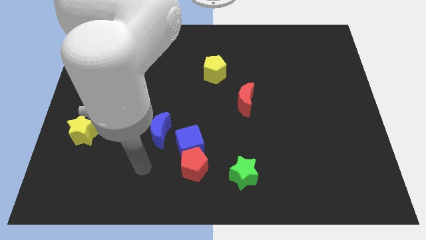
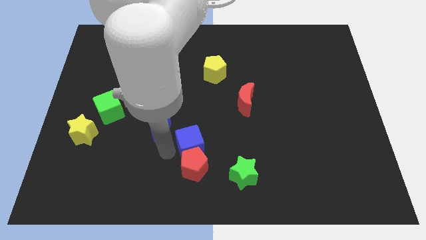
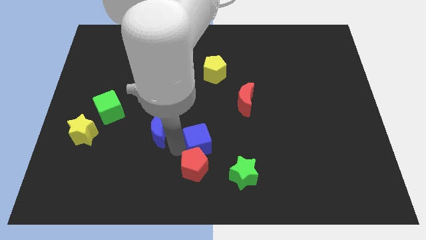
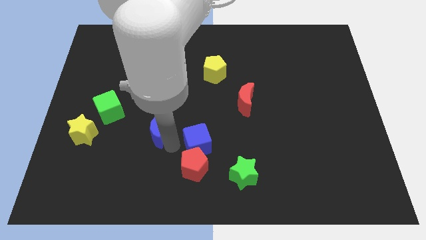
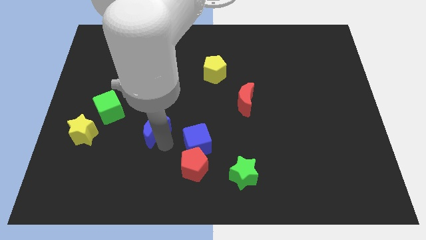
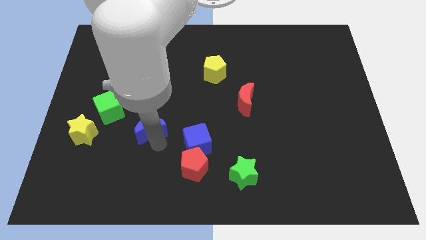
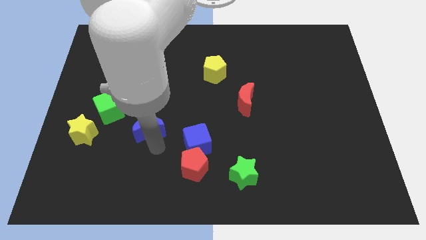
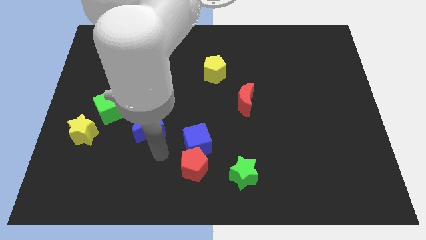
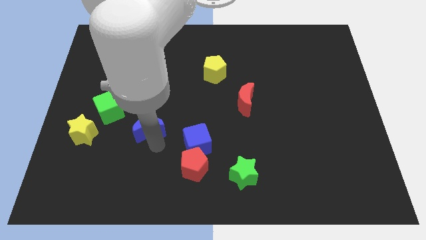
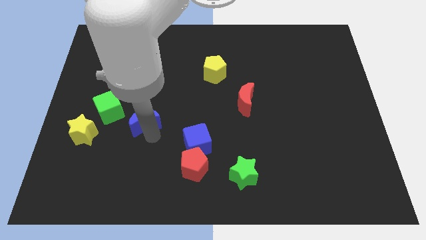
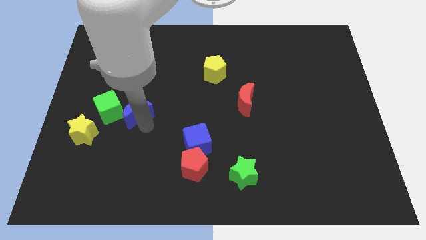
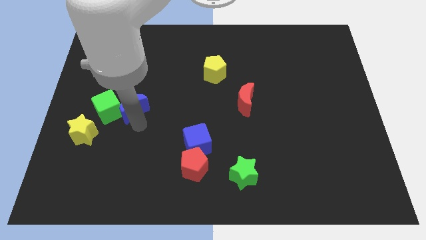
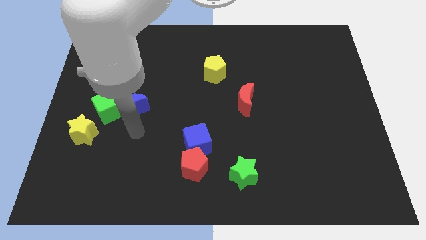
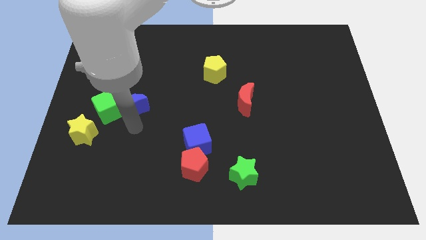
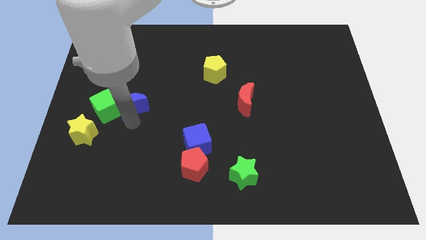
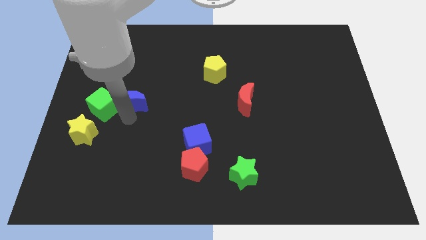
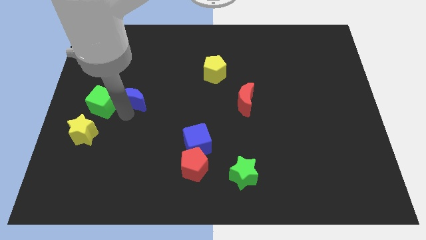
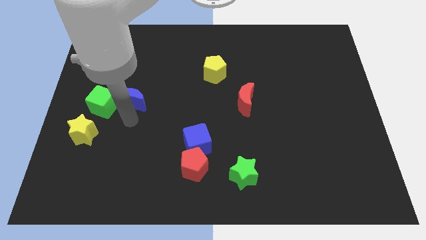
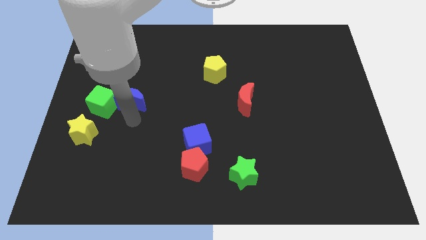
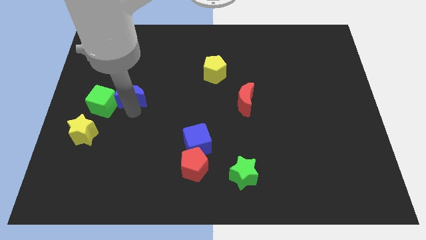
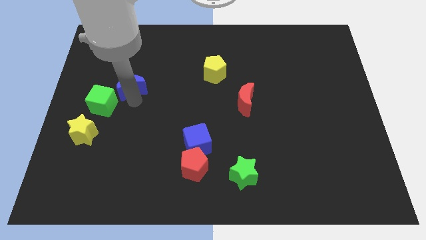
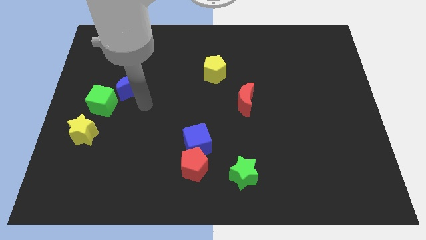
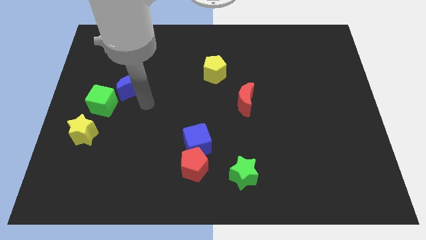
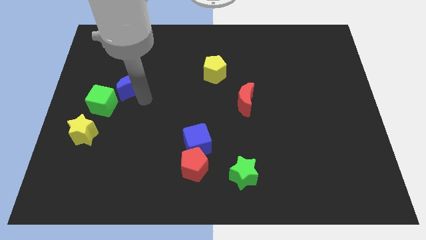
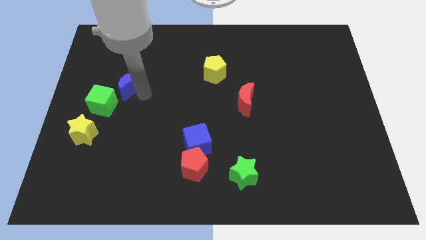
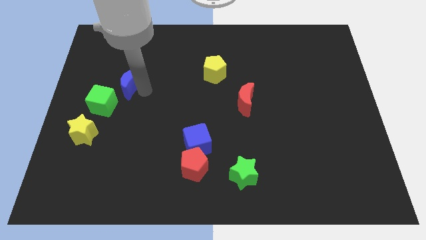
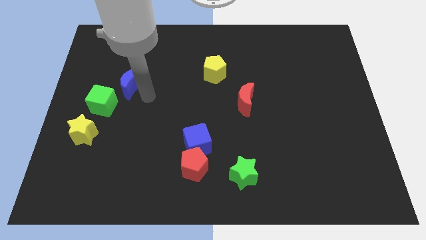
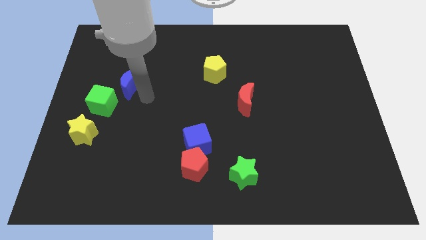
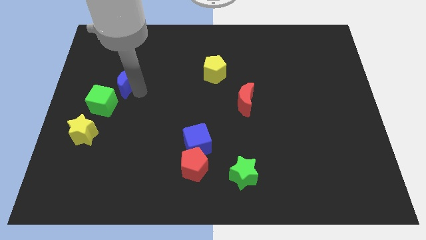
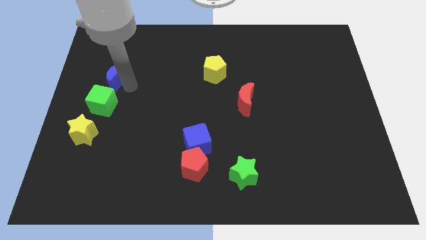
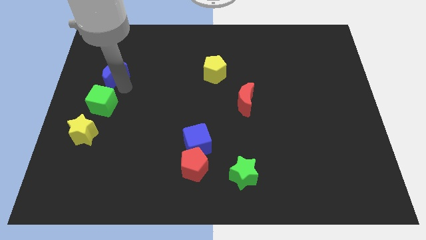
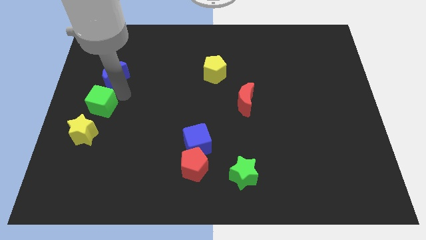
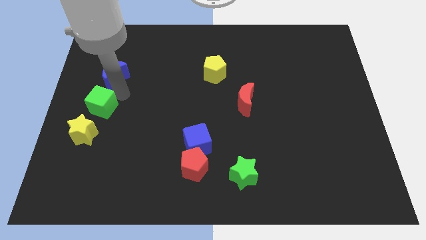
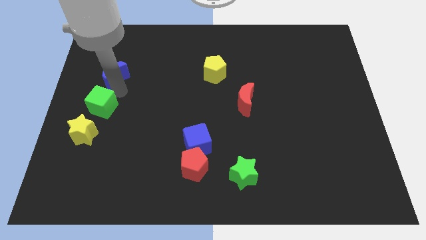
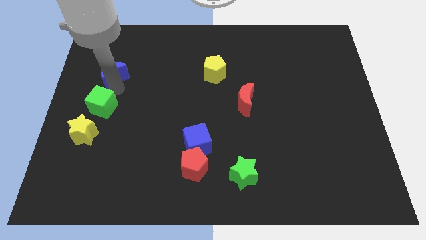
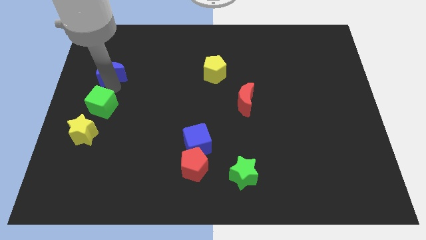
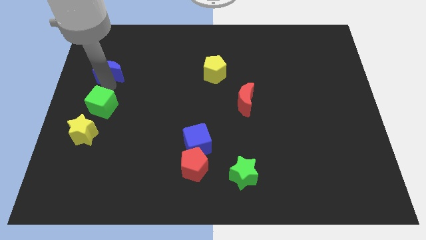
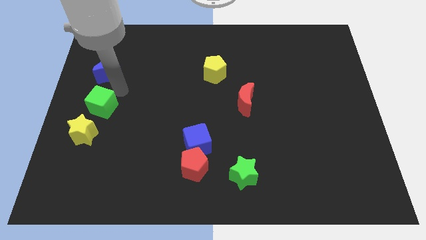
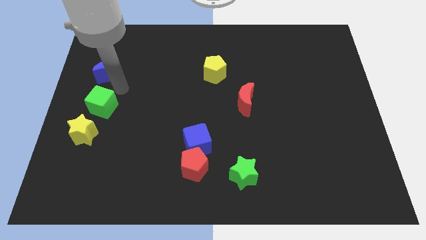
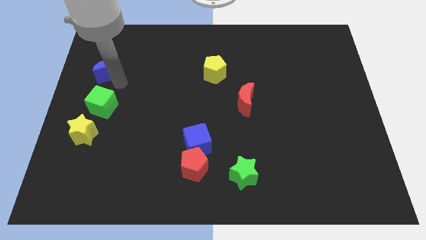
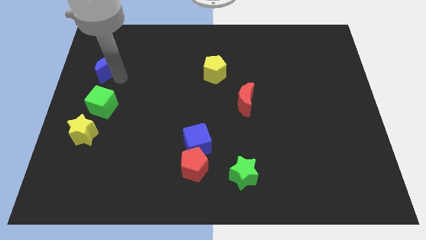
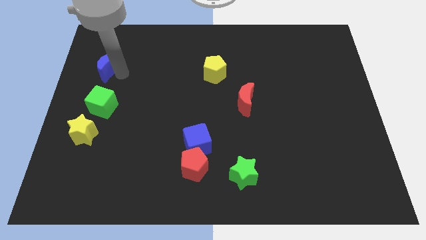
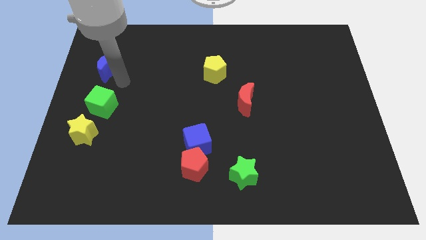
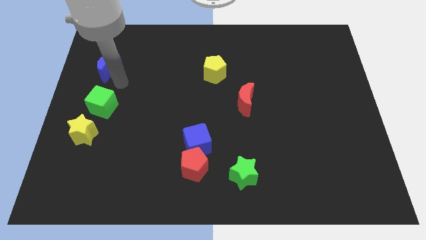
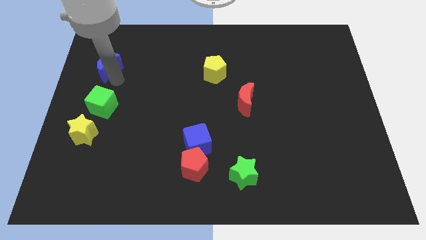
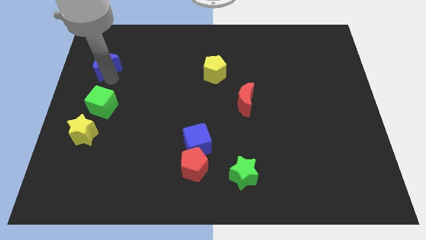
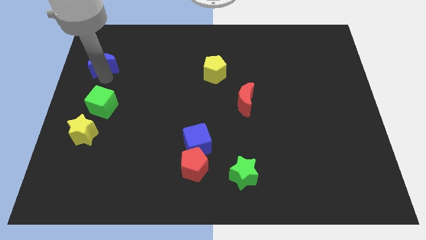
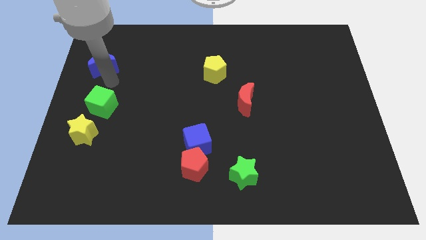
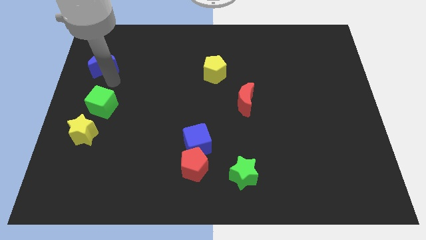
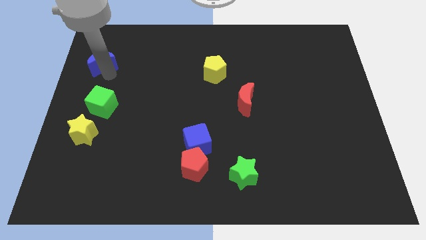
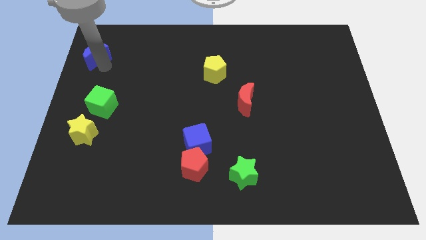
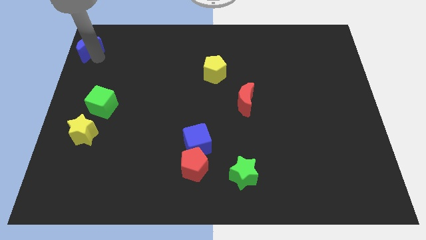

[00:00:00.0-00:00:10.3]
move the blue moon to the top left

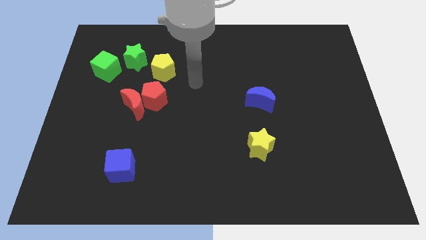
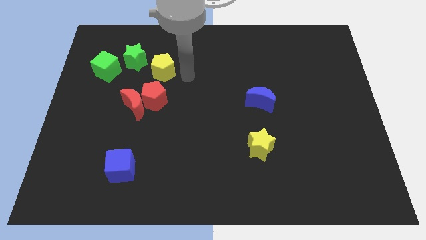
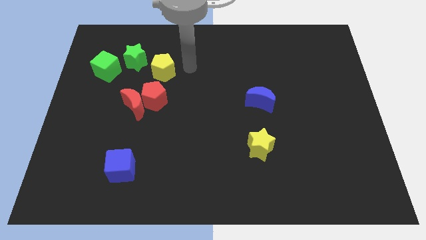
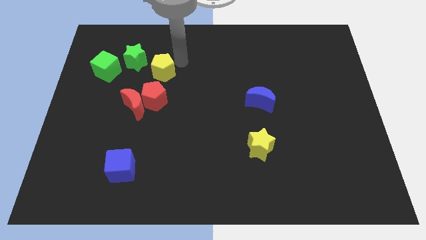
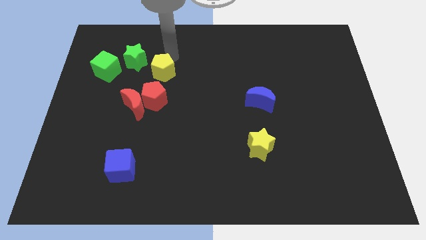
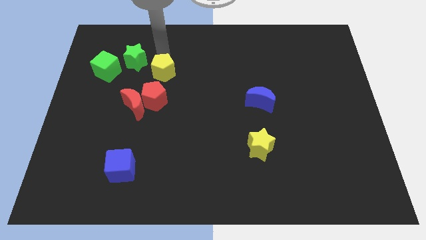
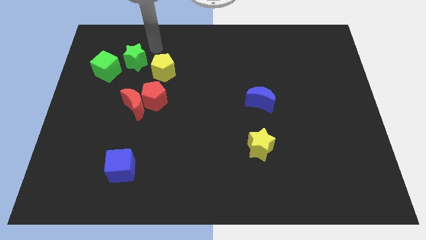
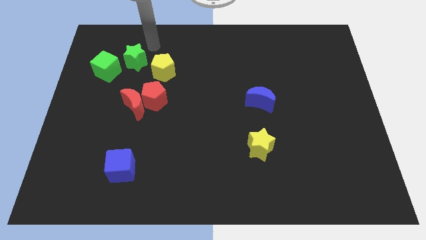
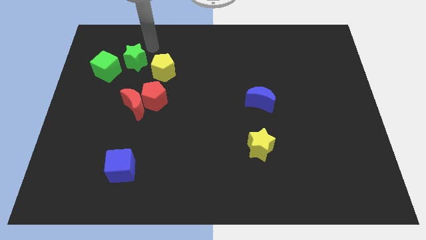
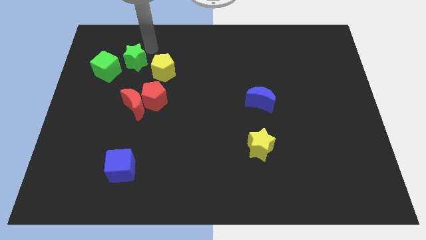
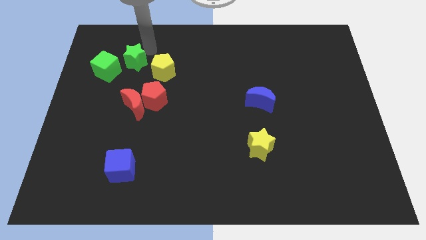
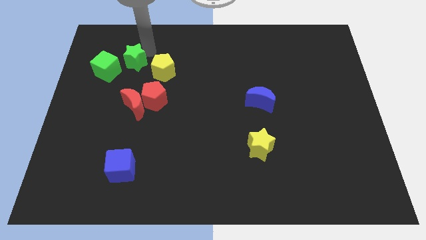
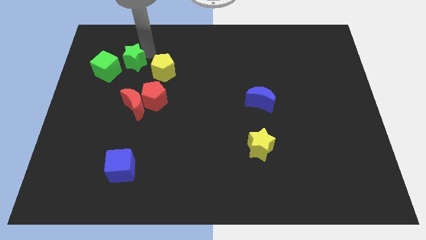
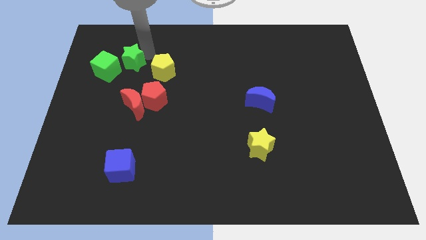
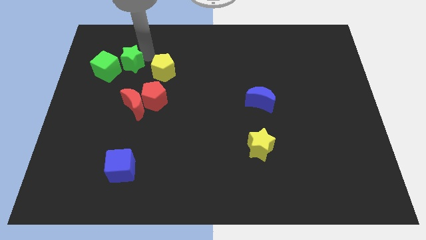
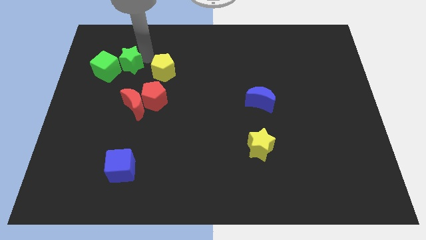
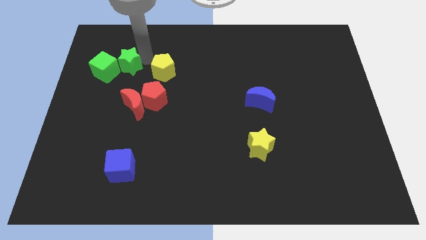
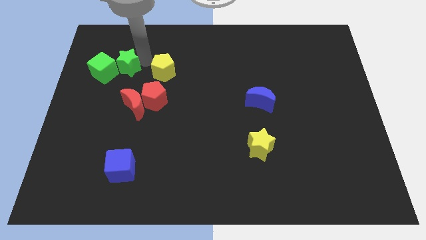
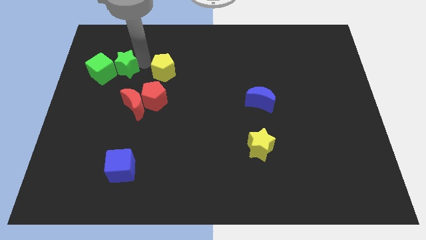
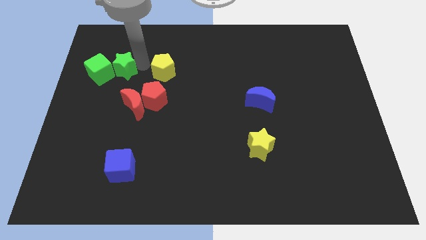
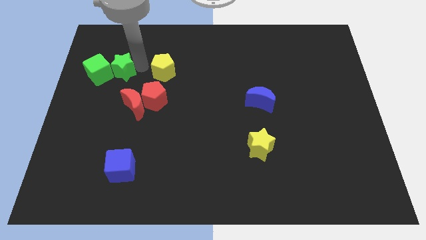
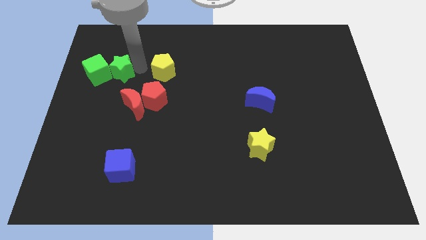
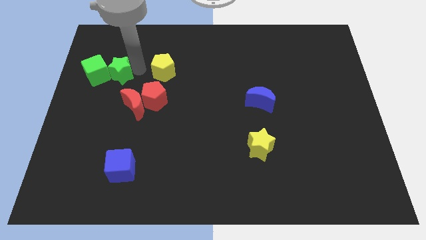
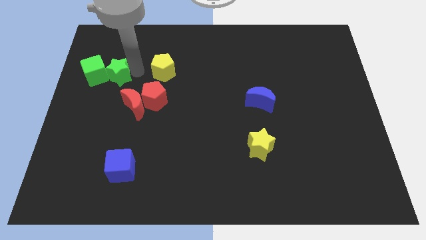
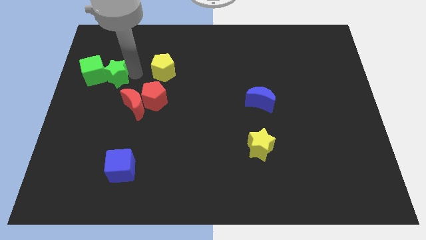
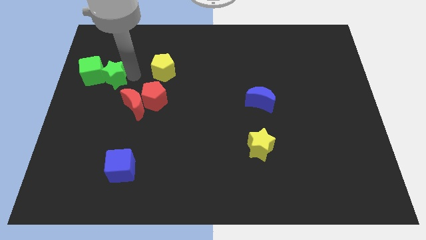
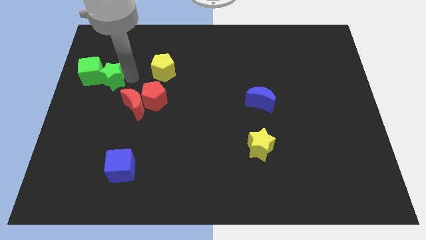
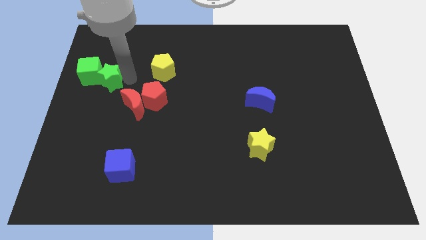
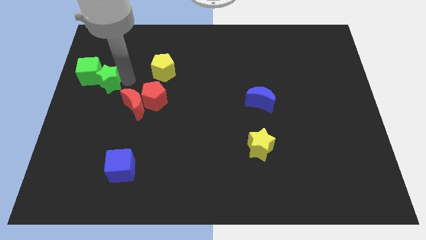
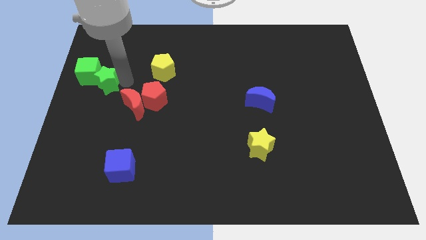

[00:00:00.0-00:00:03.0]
push the green star to the left side of the board
